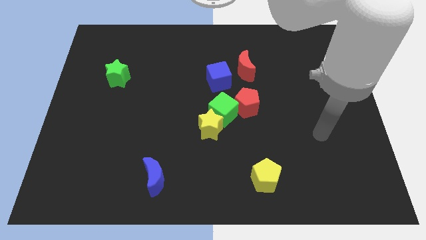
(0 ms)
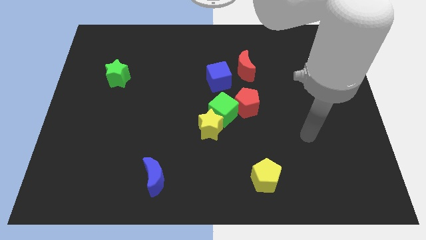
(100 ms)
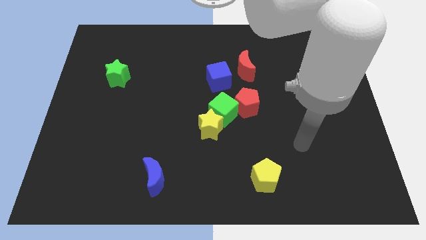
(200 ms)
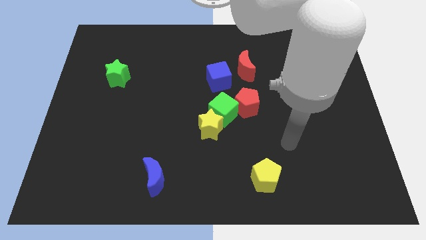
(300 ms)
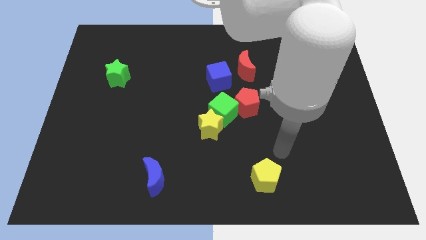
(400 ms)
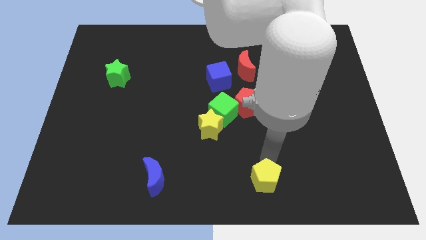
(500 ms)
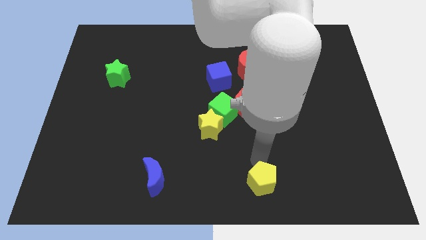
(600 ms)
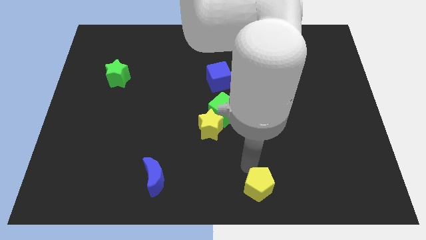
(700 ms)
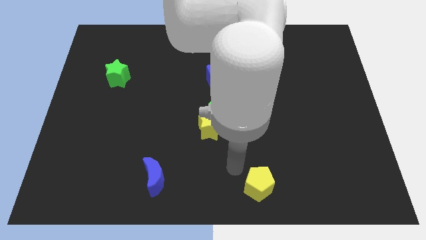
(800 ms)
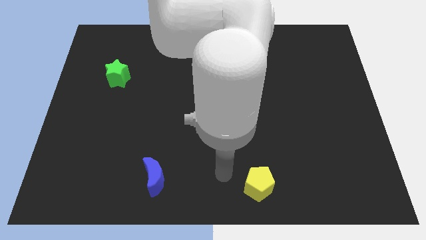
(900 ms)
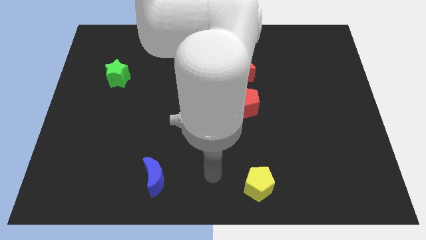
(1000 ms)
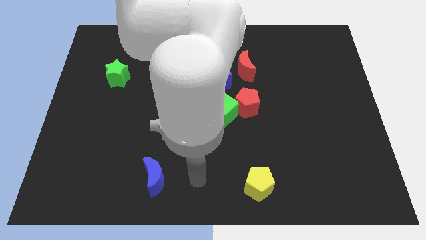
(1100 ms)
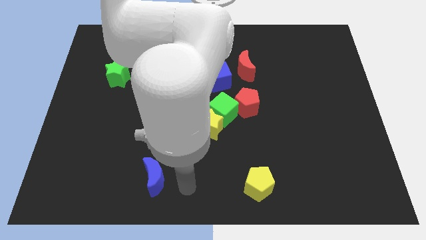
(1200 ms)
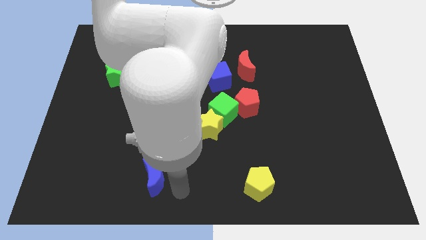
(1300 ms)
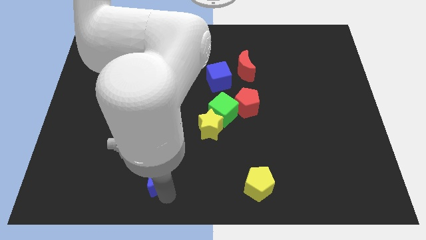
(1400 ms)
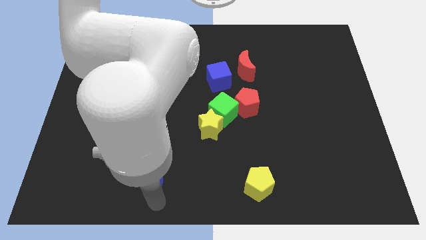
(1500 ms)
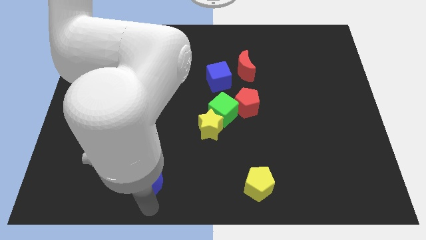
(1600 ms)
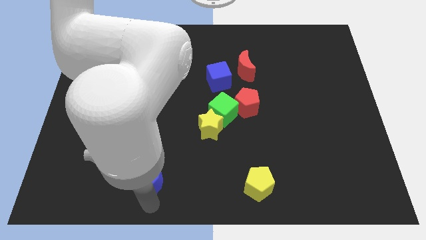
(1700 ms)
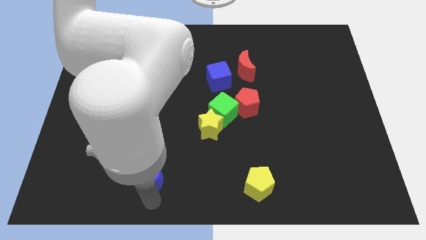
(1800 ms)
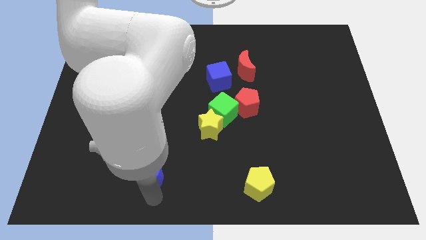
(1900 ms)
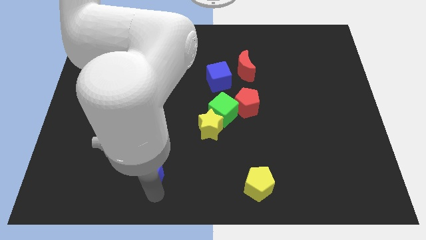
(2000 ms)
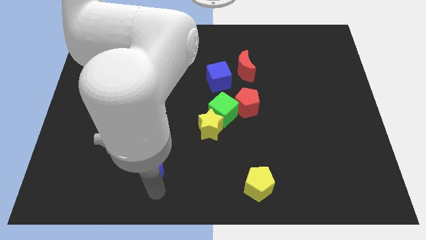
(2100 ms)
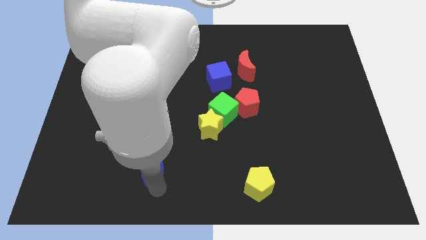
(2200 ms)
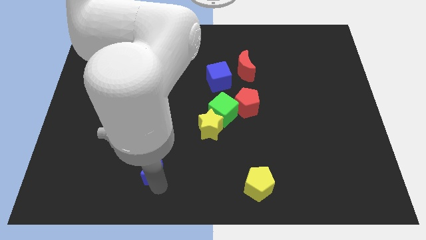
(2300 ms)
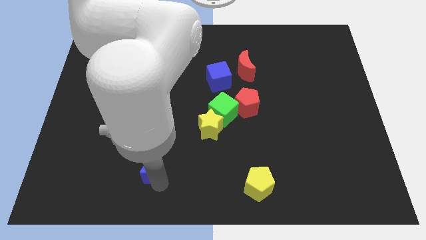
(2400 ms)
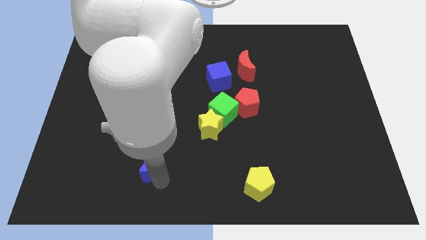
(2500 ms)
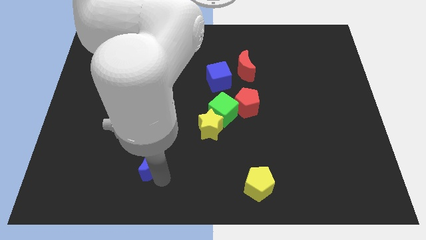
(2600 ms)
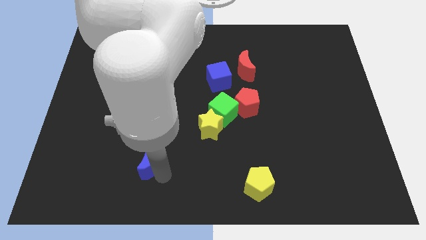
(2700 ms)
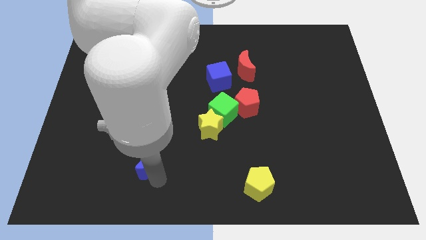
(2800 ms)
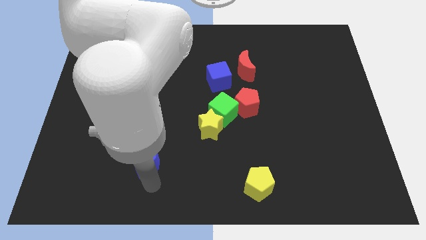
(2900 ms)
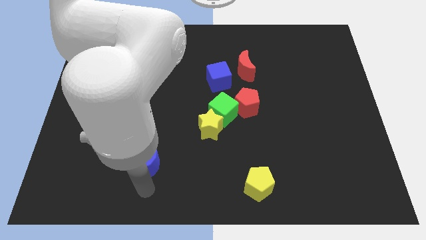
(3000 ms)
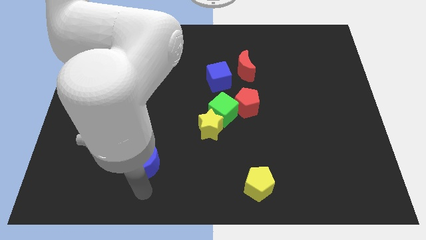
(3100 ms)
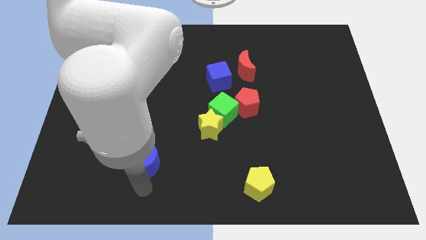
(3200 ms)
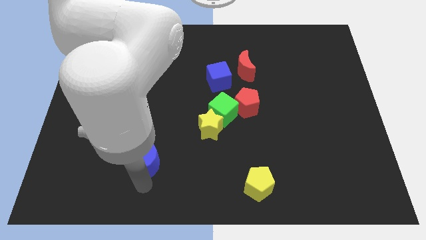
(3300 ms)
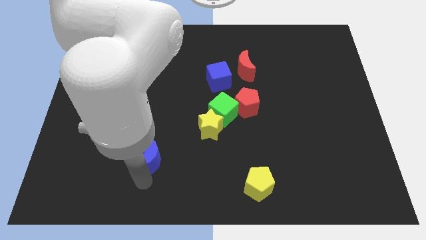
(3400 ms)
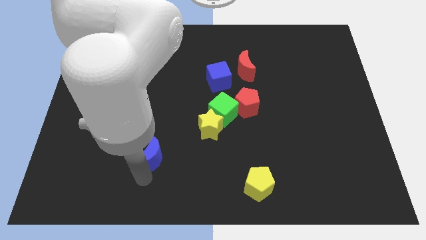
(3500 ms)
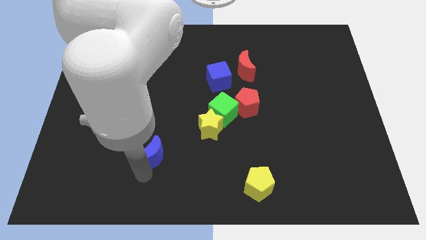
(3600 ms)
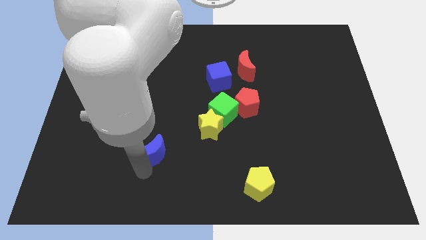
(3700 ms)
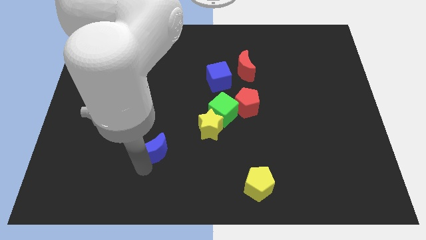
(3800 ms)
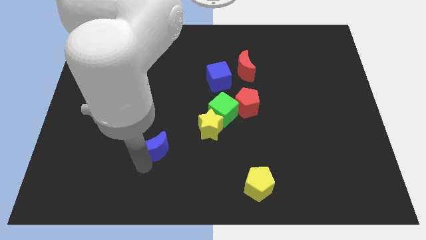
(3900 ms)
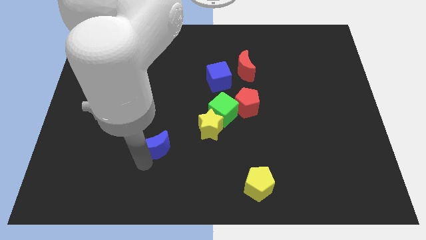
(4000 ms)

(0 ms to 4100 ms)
move the blue moon slightly up

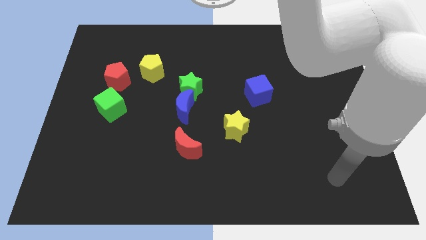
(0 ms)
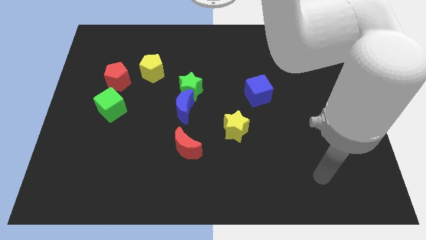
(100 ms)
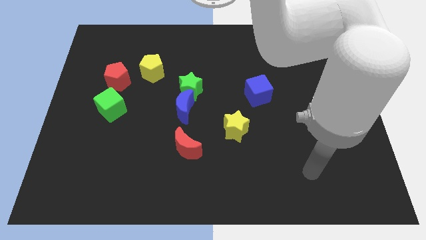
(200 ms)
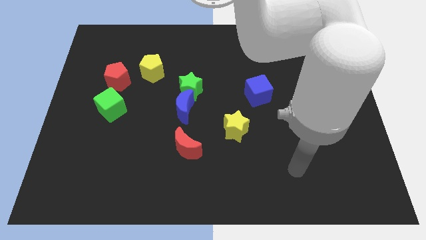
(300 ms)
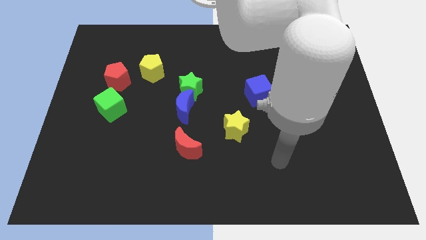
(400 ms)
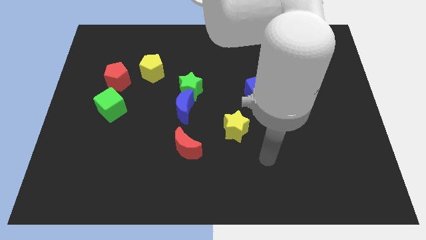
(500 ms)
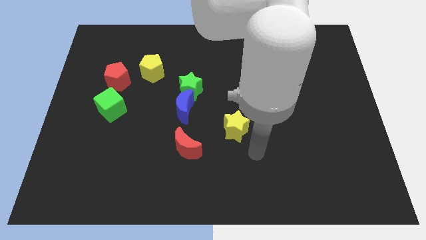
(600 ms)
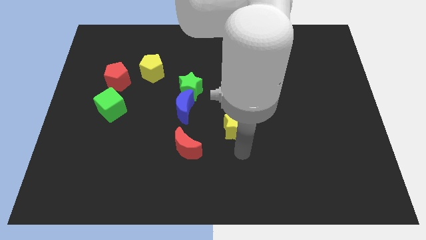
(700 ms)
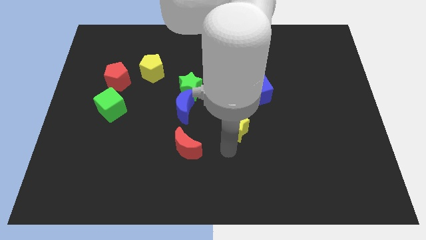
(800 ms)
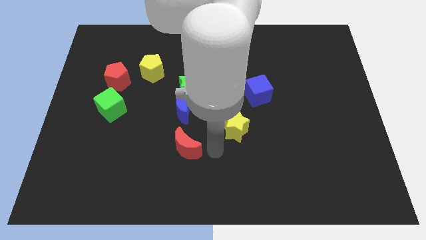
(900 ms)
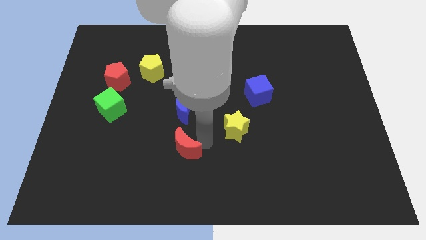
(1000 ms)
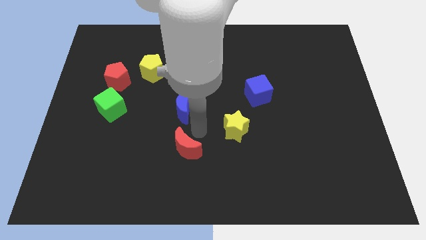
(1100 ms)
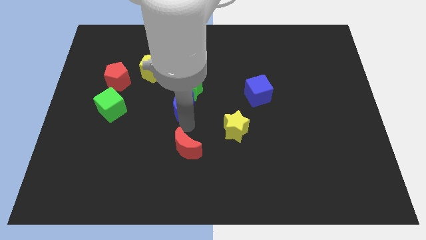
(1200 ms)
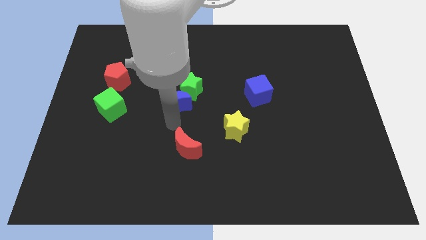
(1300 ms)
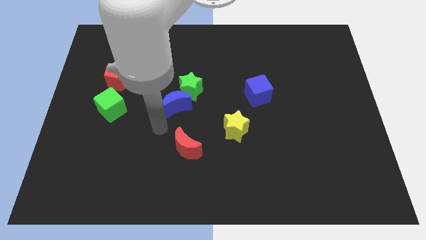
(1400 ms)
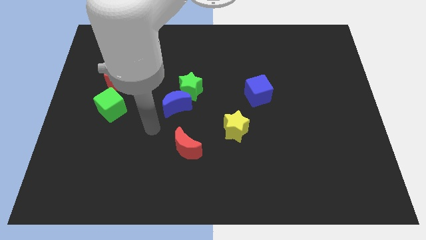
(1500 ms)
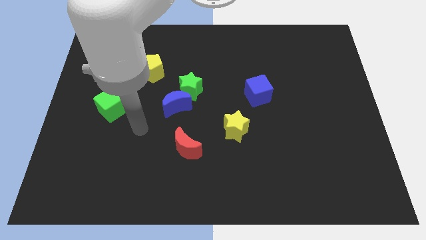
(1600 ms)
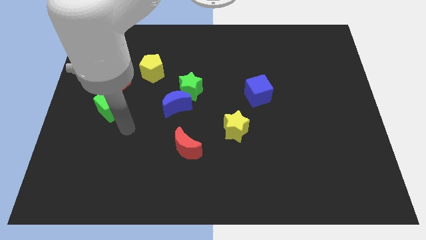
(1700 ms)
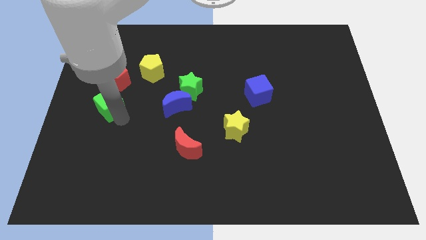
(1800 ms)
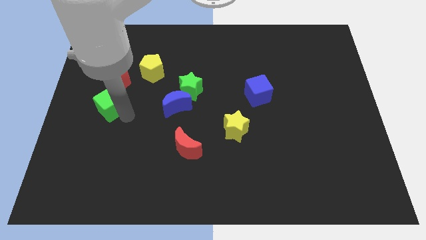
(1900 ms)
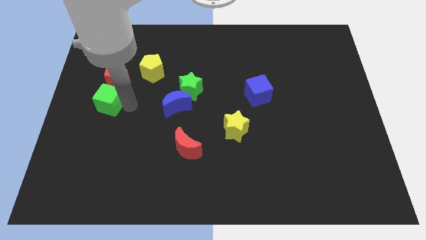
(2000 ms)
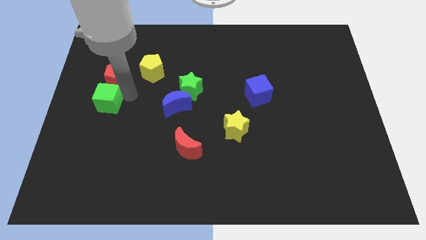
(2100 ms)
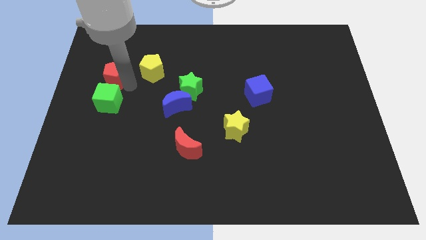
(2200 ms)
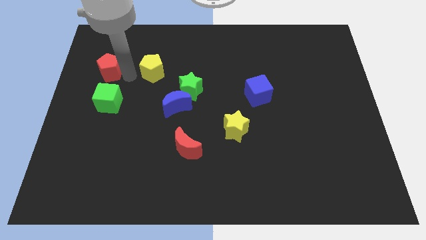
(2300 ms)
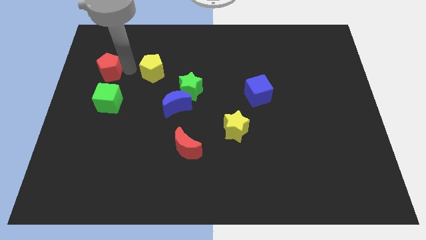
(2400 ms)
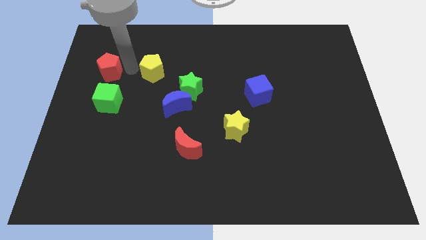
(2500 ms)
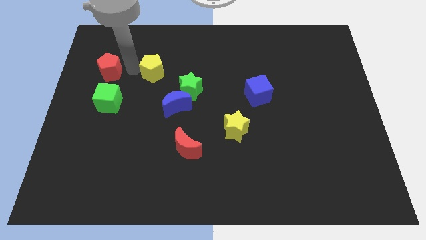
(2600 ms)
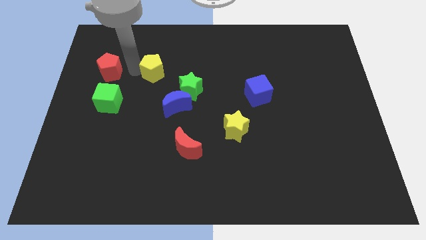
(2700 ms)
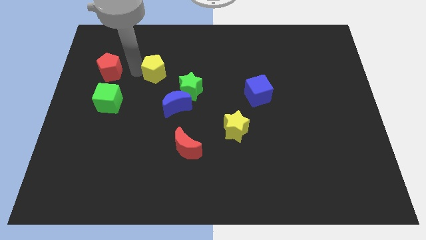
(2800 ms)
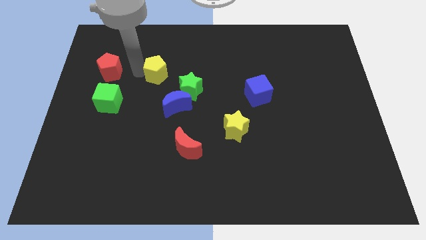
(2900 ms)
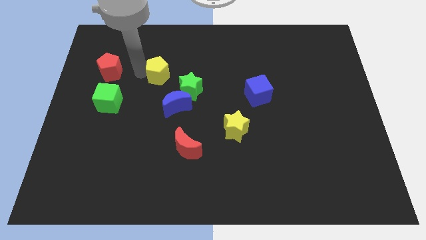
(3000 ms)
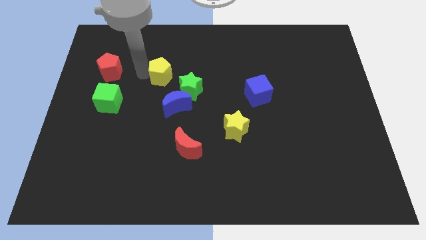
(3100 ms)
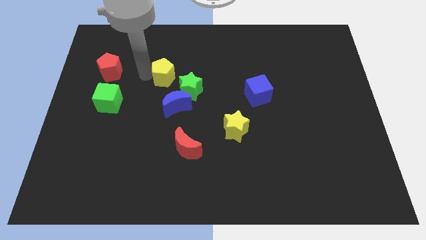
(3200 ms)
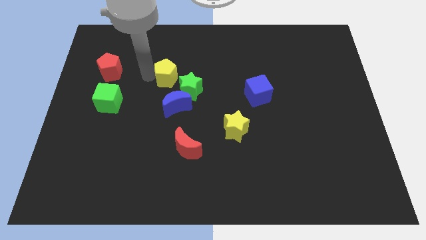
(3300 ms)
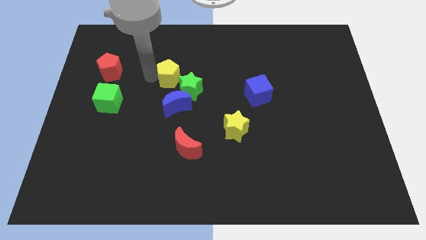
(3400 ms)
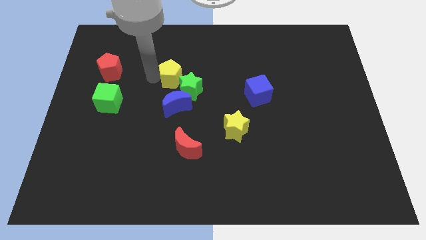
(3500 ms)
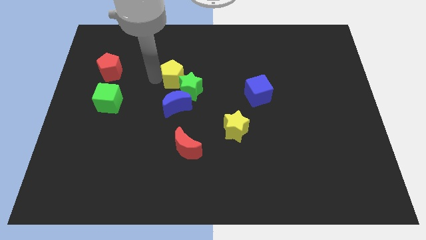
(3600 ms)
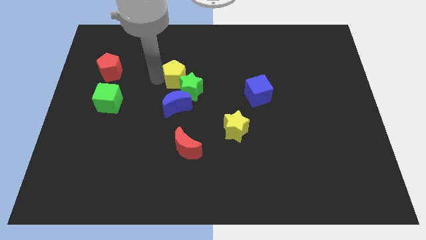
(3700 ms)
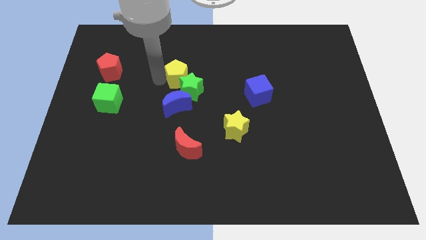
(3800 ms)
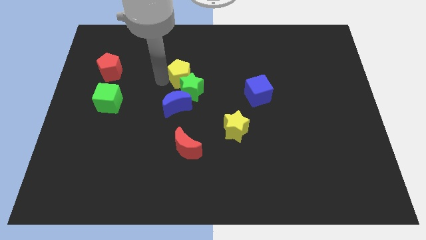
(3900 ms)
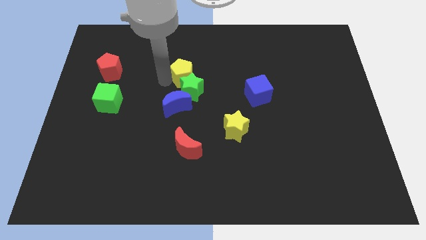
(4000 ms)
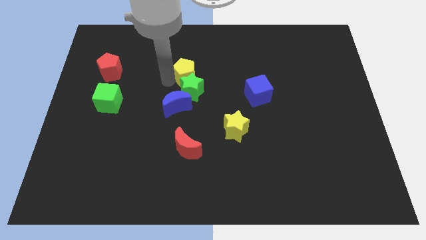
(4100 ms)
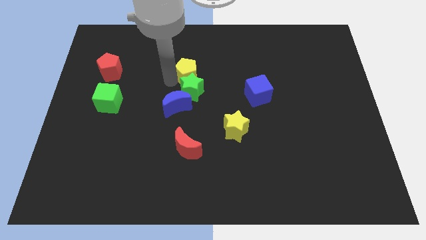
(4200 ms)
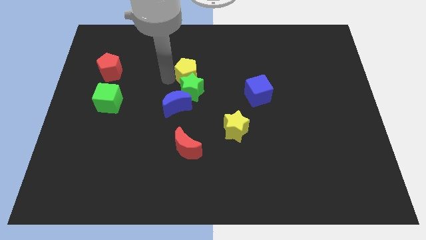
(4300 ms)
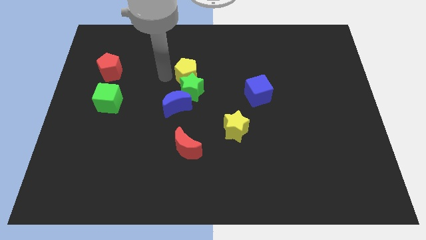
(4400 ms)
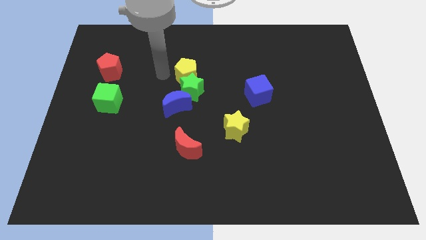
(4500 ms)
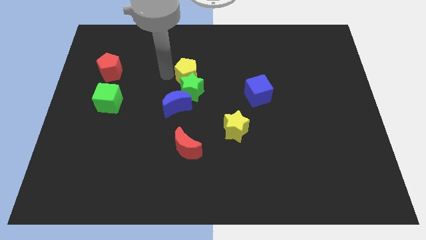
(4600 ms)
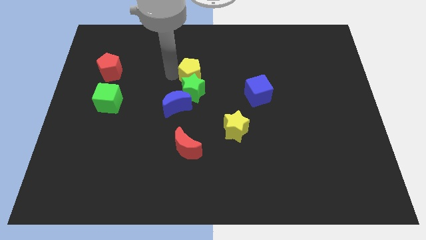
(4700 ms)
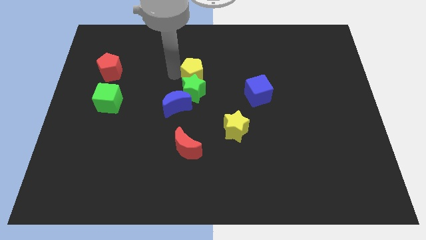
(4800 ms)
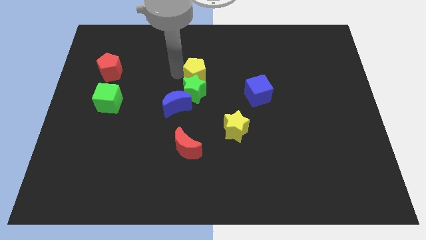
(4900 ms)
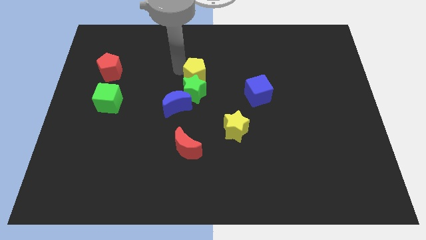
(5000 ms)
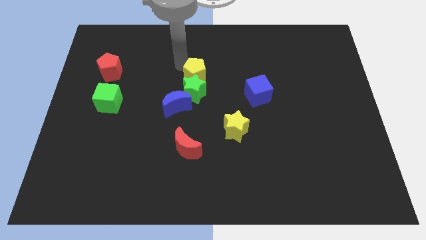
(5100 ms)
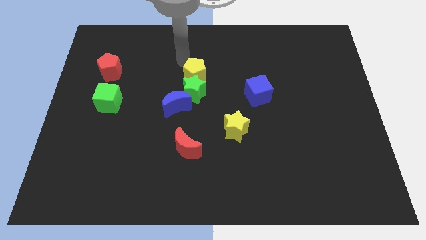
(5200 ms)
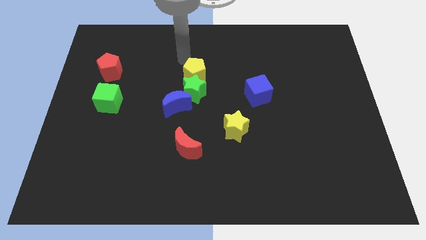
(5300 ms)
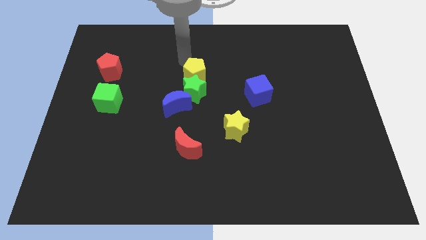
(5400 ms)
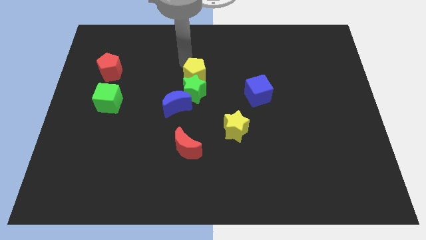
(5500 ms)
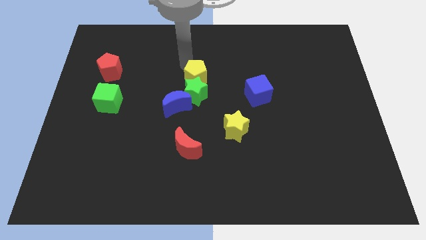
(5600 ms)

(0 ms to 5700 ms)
slide the yellow pentagon downwards and right a little bit
